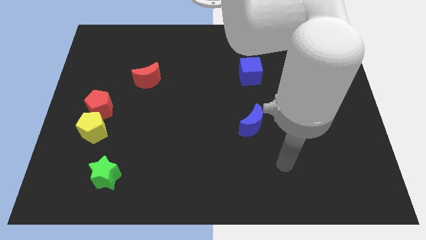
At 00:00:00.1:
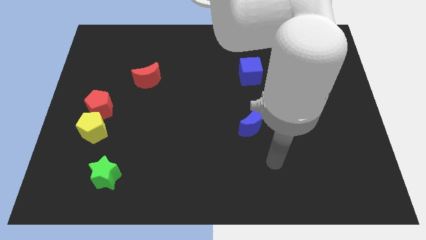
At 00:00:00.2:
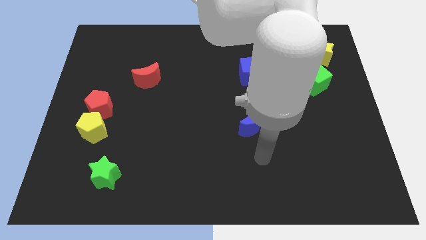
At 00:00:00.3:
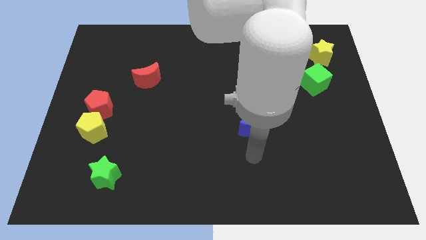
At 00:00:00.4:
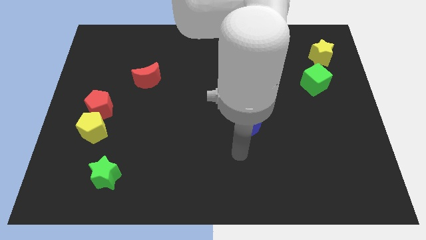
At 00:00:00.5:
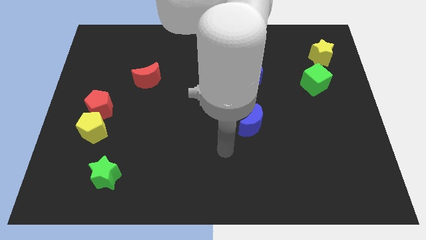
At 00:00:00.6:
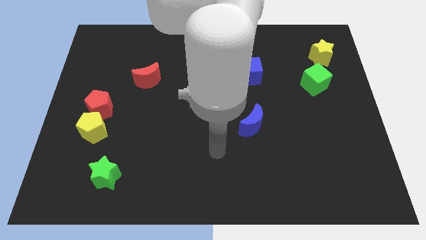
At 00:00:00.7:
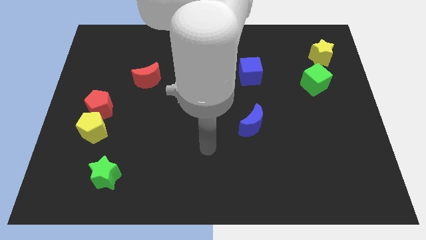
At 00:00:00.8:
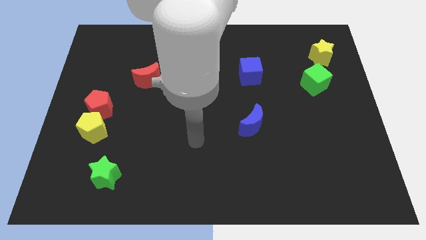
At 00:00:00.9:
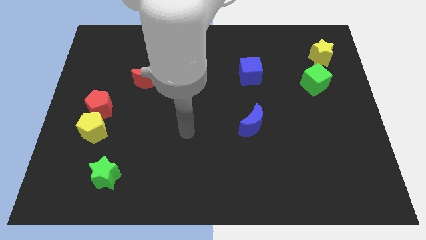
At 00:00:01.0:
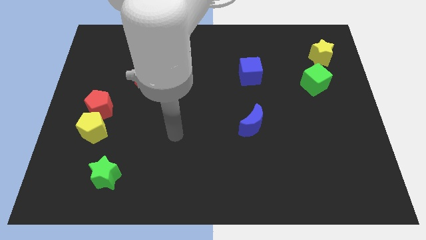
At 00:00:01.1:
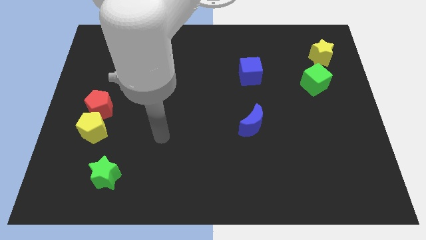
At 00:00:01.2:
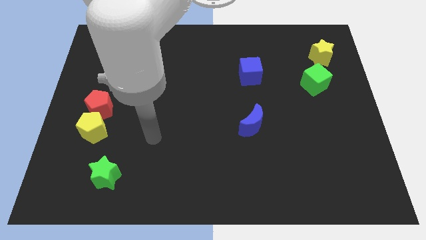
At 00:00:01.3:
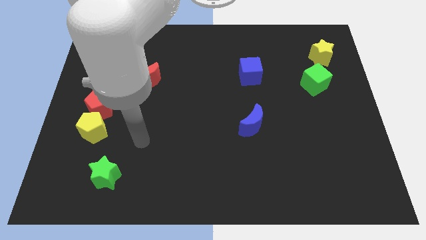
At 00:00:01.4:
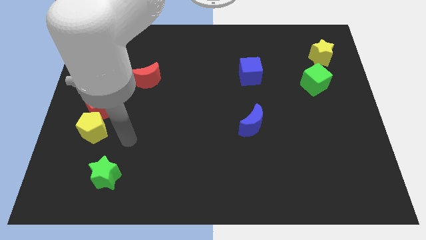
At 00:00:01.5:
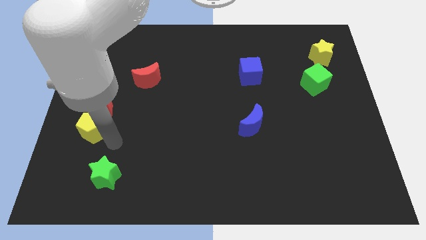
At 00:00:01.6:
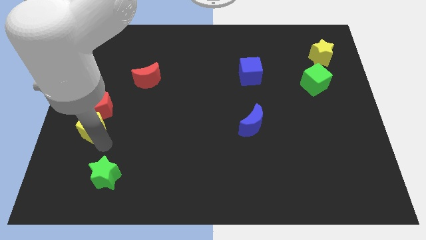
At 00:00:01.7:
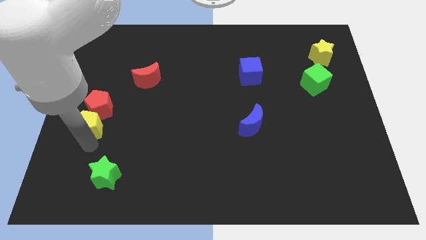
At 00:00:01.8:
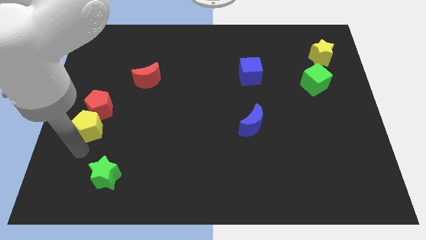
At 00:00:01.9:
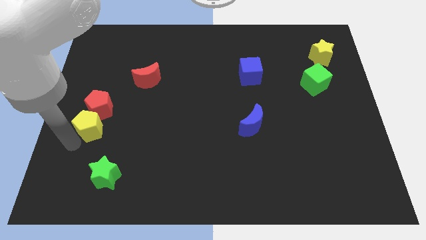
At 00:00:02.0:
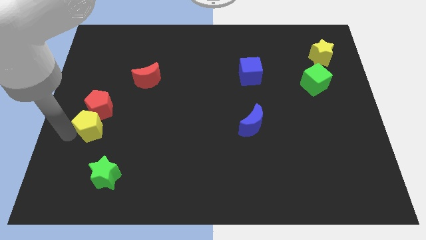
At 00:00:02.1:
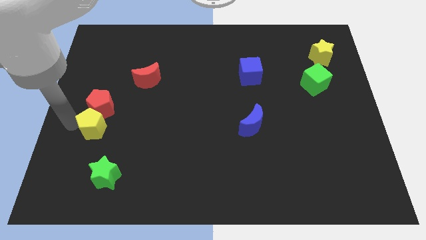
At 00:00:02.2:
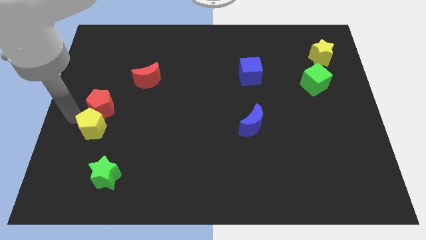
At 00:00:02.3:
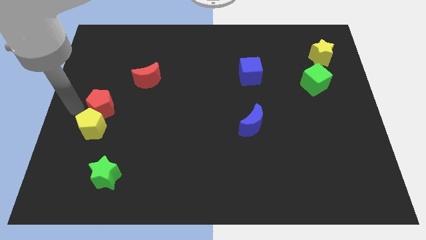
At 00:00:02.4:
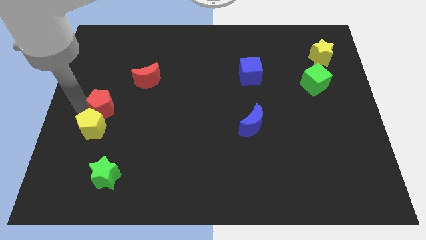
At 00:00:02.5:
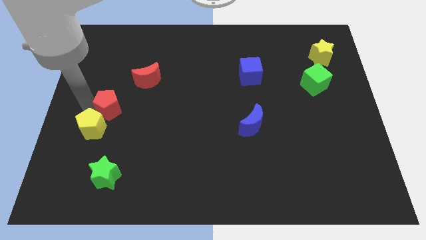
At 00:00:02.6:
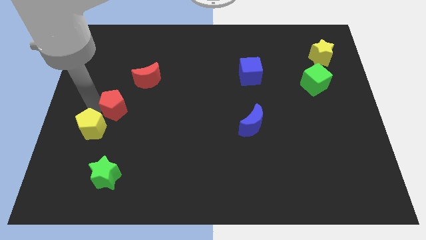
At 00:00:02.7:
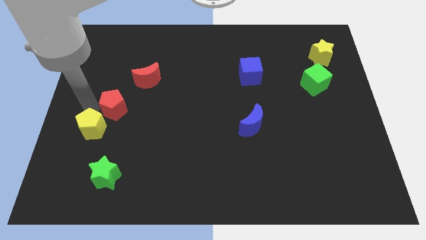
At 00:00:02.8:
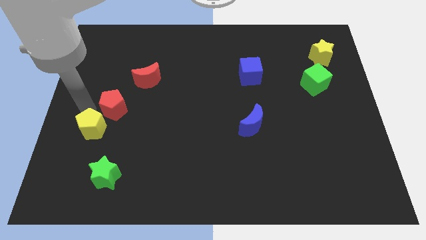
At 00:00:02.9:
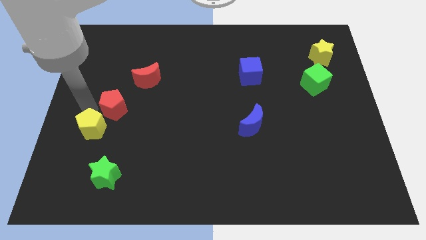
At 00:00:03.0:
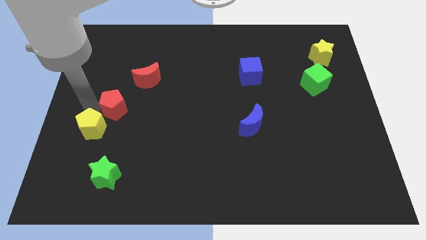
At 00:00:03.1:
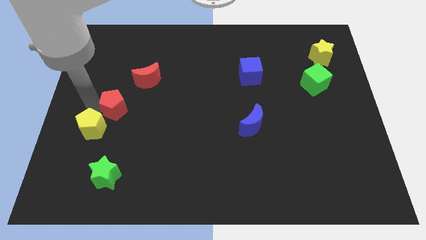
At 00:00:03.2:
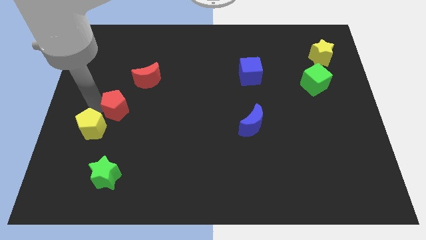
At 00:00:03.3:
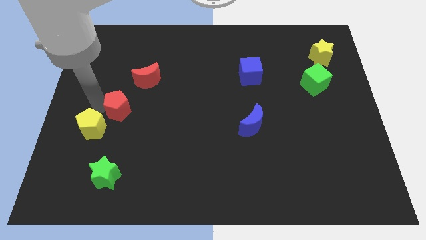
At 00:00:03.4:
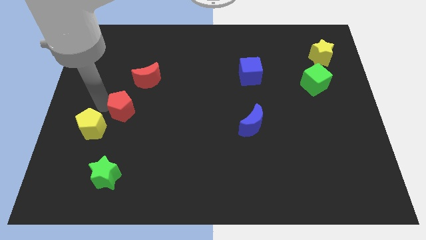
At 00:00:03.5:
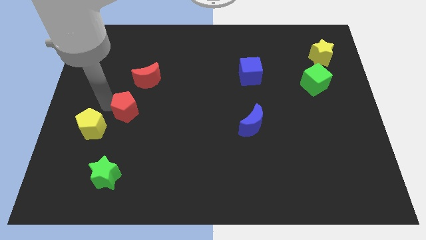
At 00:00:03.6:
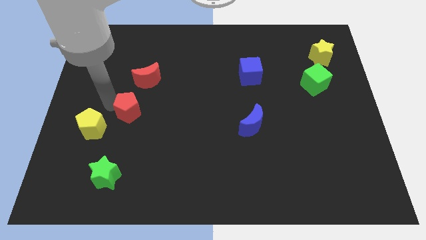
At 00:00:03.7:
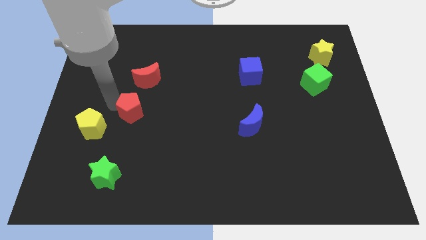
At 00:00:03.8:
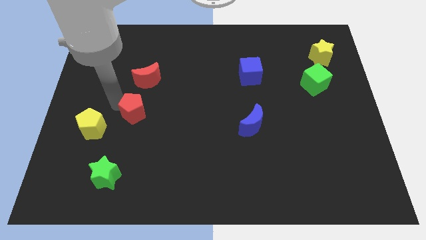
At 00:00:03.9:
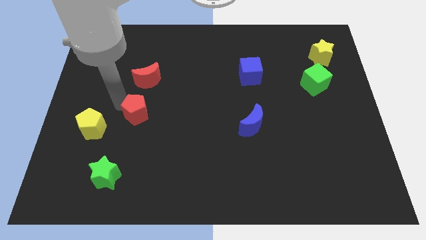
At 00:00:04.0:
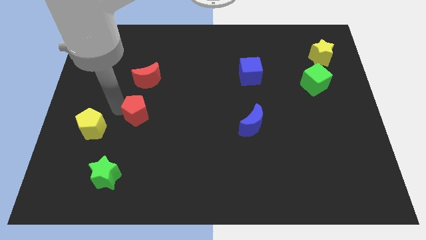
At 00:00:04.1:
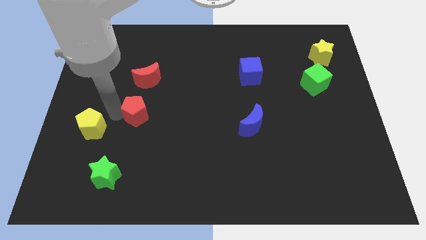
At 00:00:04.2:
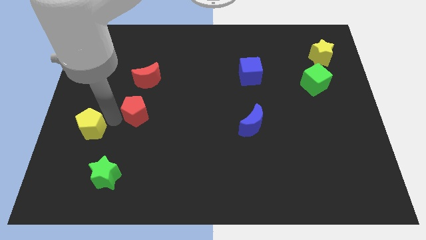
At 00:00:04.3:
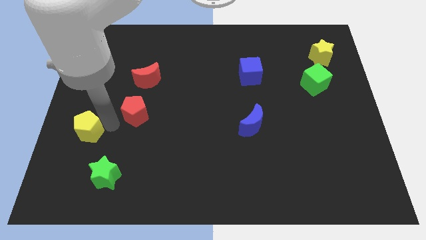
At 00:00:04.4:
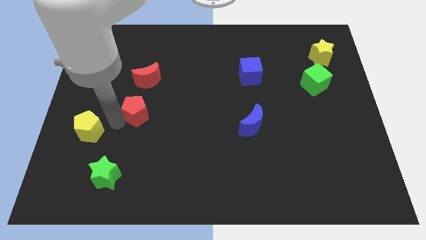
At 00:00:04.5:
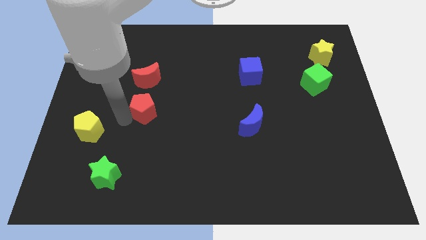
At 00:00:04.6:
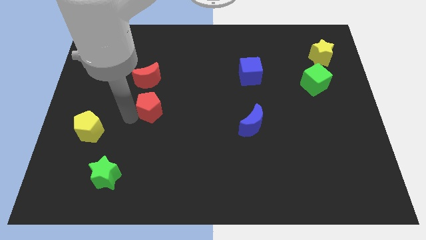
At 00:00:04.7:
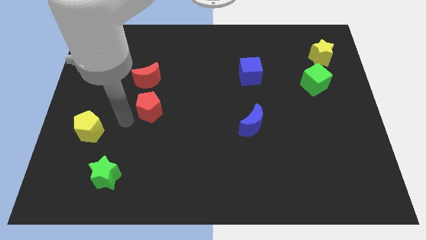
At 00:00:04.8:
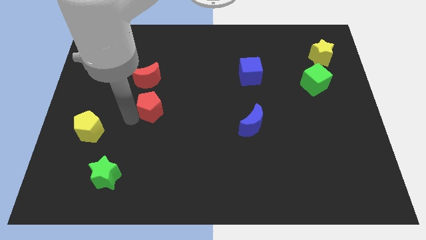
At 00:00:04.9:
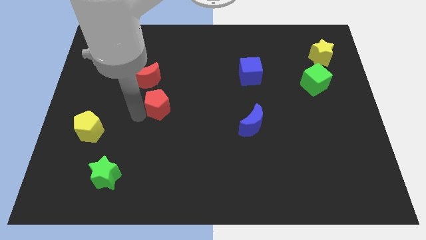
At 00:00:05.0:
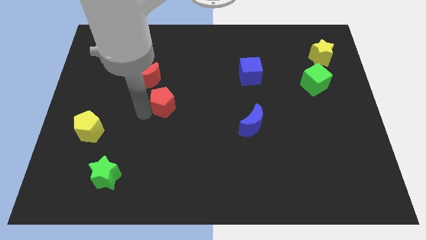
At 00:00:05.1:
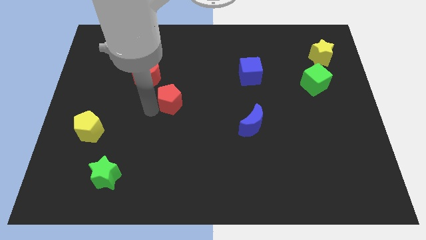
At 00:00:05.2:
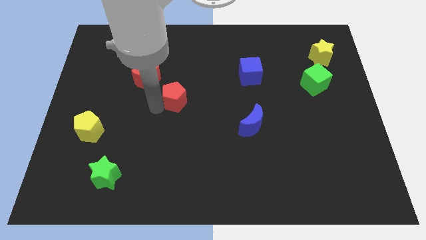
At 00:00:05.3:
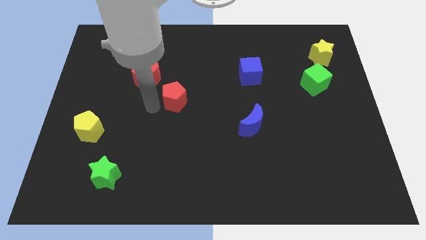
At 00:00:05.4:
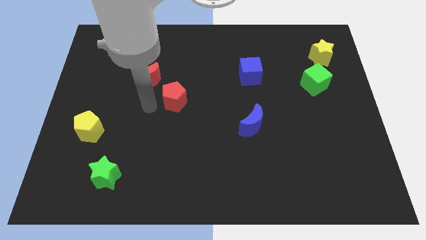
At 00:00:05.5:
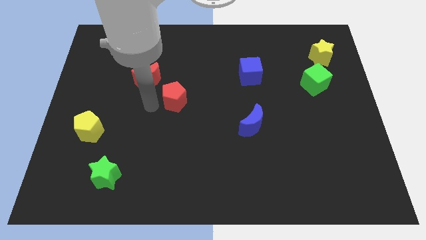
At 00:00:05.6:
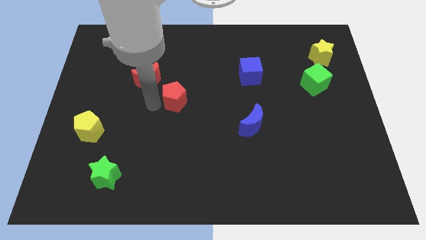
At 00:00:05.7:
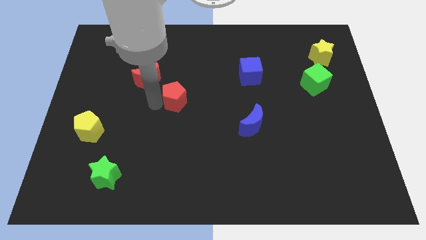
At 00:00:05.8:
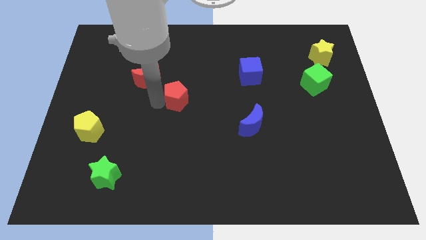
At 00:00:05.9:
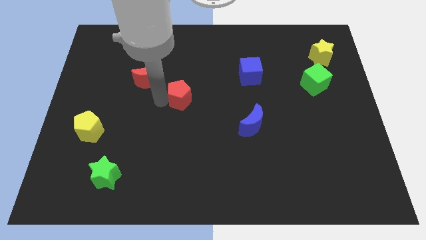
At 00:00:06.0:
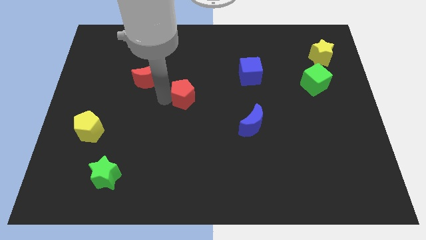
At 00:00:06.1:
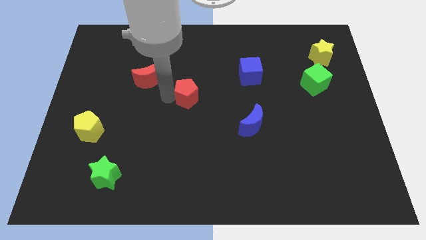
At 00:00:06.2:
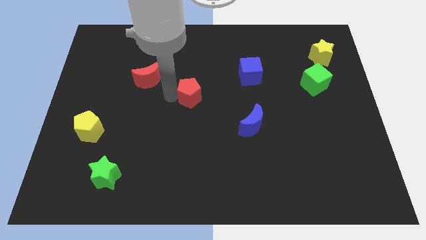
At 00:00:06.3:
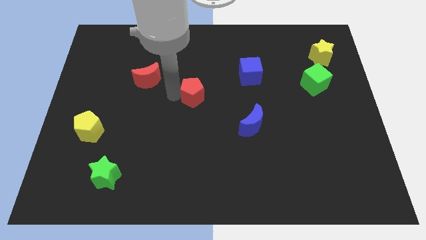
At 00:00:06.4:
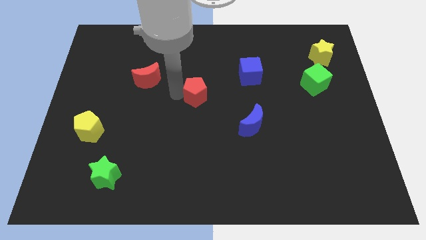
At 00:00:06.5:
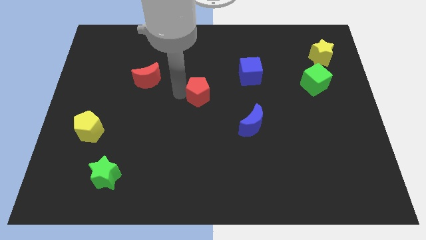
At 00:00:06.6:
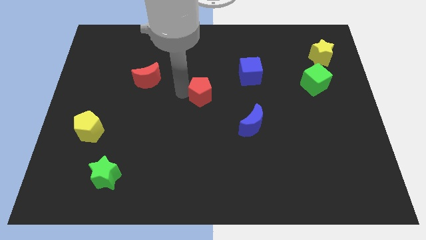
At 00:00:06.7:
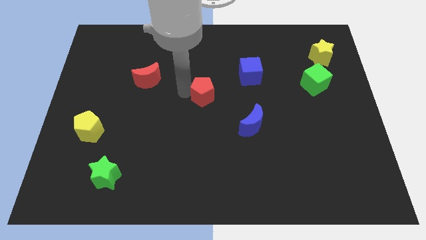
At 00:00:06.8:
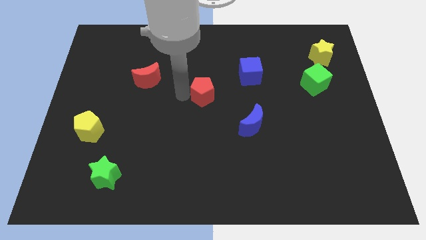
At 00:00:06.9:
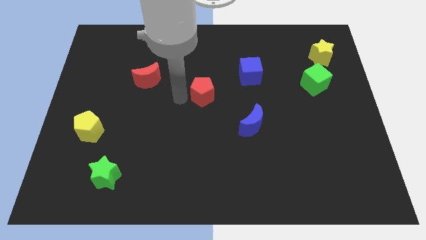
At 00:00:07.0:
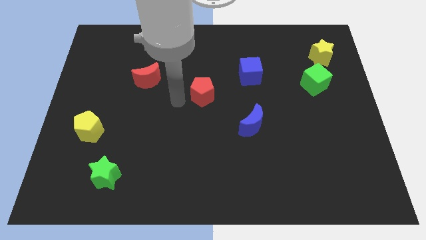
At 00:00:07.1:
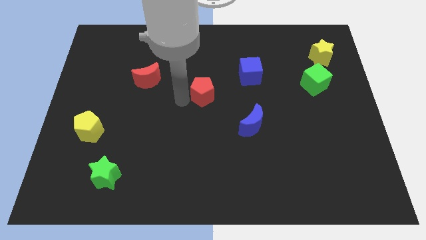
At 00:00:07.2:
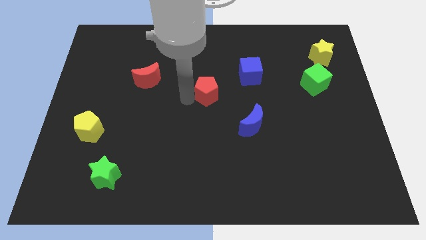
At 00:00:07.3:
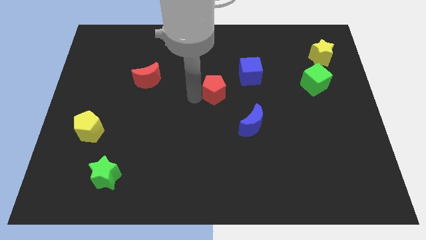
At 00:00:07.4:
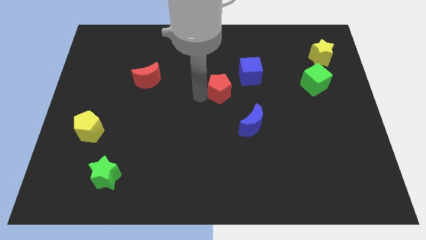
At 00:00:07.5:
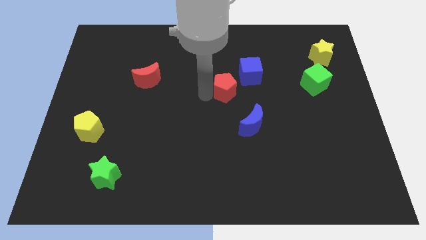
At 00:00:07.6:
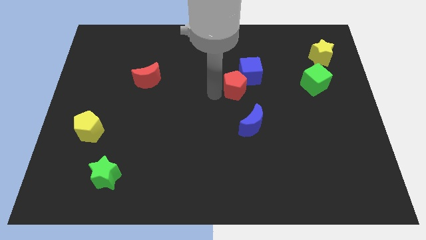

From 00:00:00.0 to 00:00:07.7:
push the red pentagon next to the blue cube
